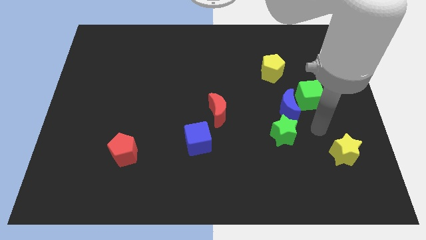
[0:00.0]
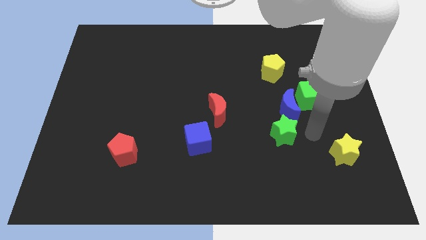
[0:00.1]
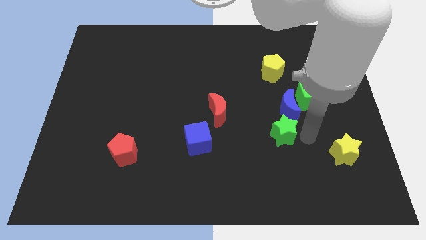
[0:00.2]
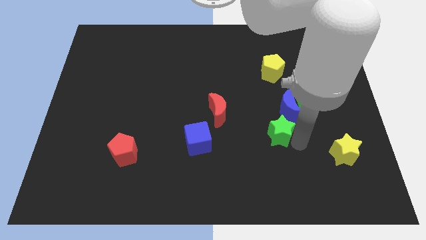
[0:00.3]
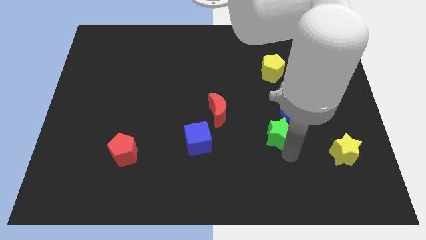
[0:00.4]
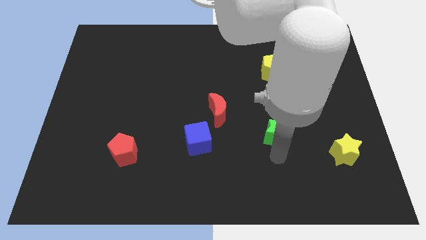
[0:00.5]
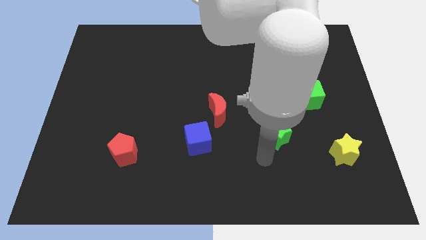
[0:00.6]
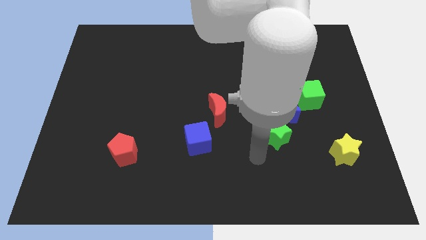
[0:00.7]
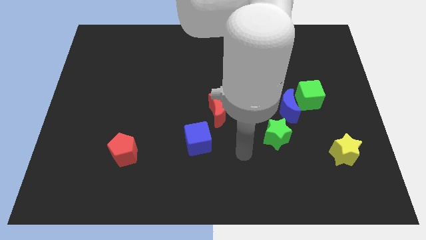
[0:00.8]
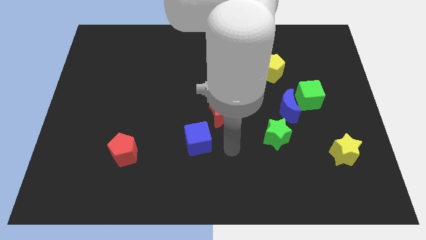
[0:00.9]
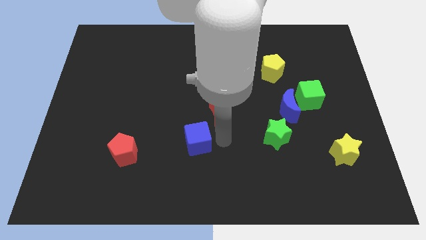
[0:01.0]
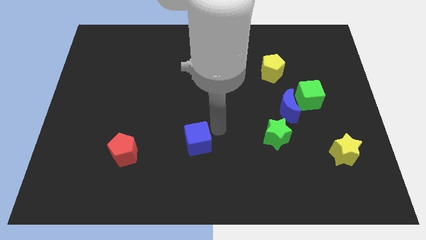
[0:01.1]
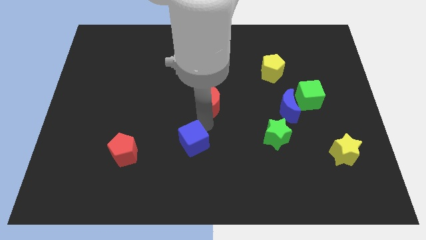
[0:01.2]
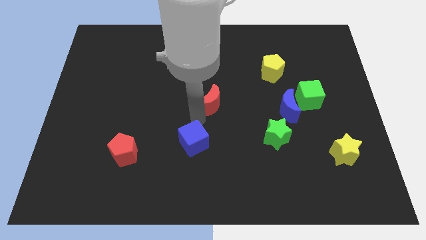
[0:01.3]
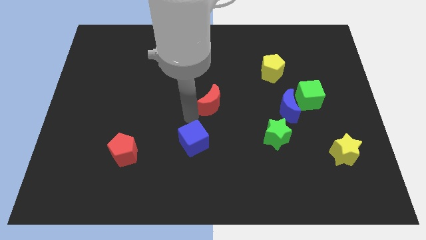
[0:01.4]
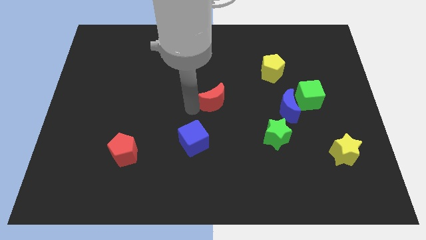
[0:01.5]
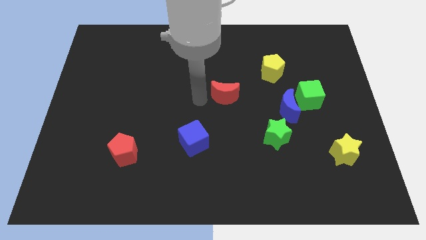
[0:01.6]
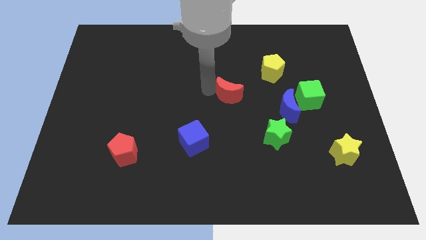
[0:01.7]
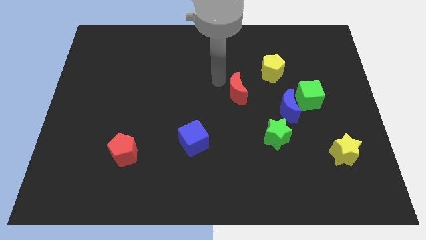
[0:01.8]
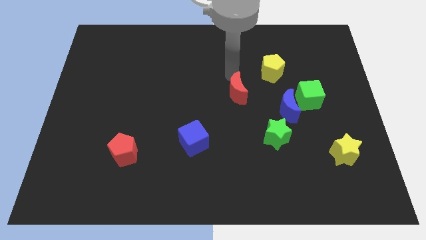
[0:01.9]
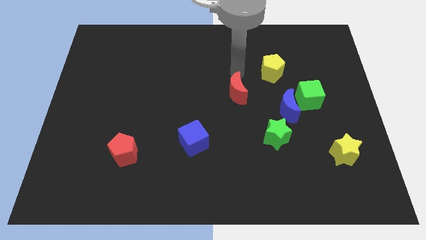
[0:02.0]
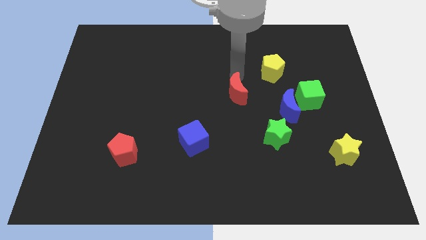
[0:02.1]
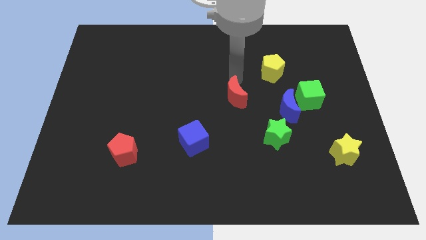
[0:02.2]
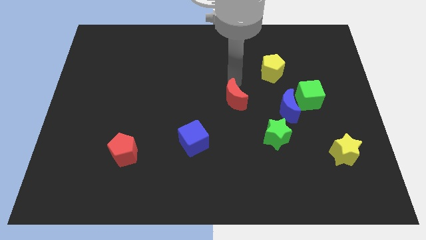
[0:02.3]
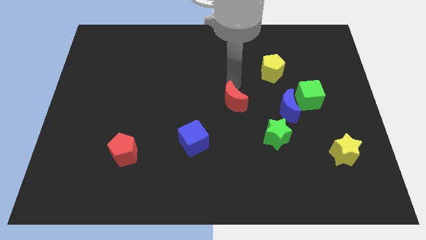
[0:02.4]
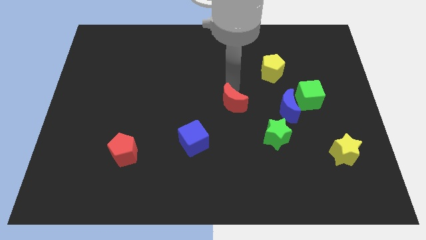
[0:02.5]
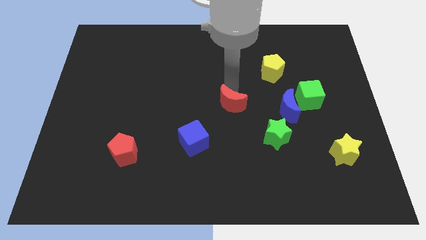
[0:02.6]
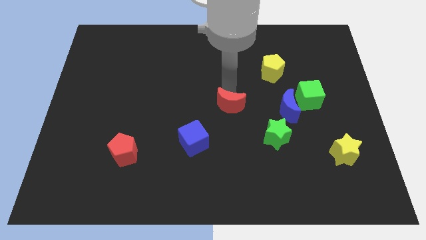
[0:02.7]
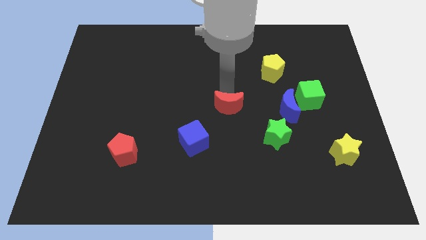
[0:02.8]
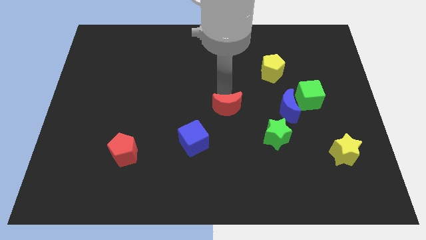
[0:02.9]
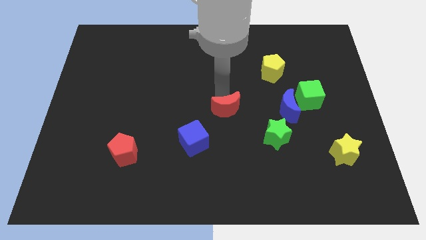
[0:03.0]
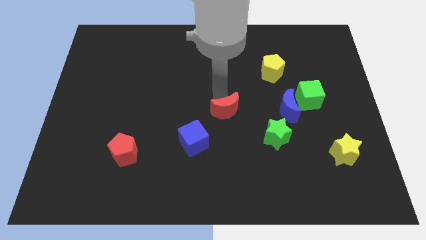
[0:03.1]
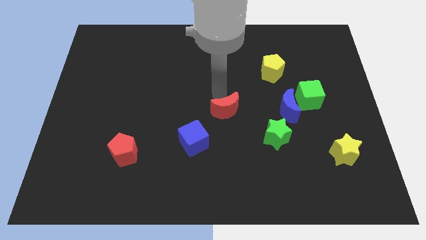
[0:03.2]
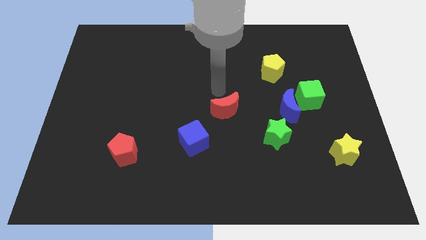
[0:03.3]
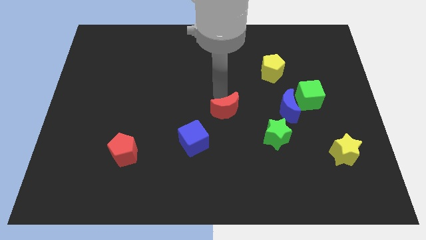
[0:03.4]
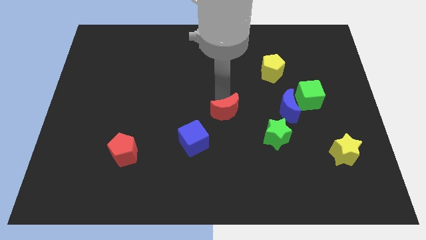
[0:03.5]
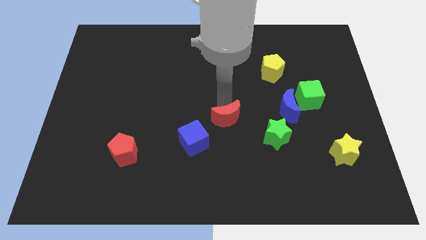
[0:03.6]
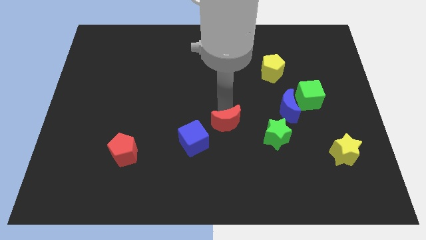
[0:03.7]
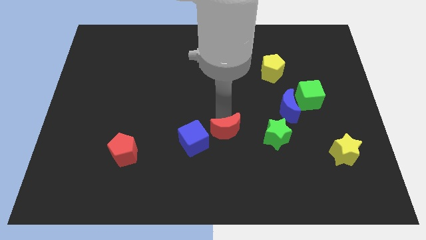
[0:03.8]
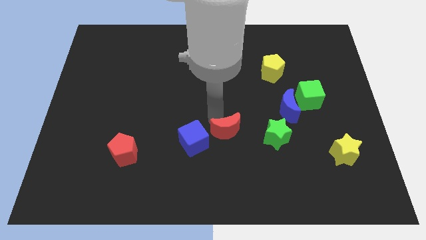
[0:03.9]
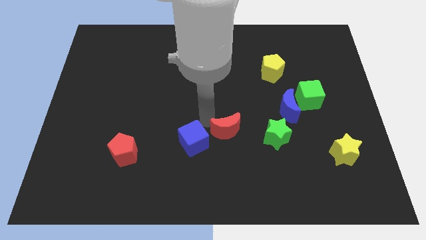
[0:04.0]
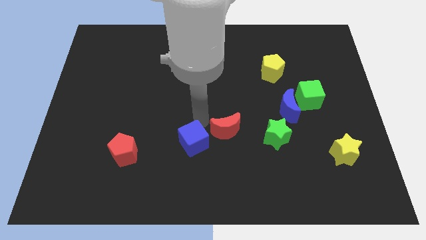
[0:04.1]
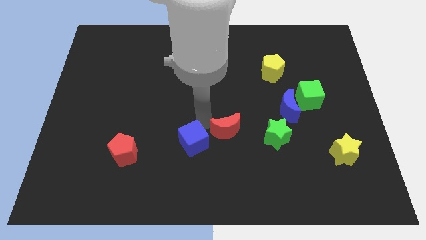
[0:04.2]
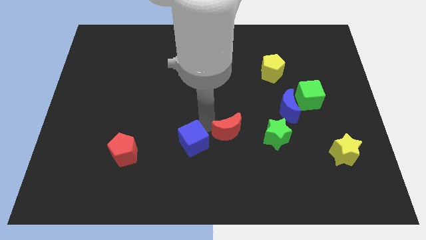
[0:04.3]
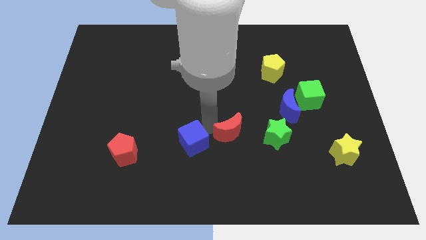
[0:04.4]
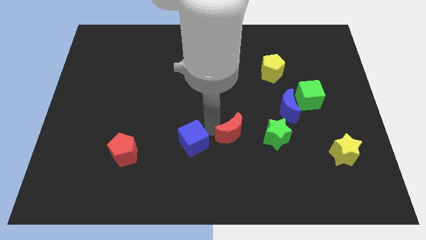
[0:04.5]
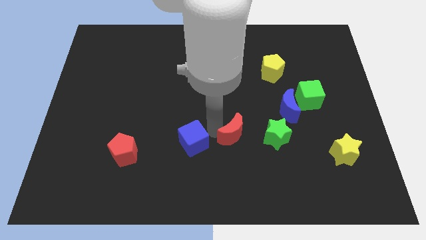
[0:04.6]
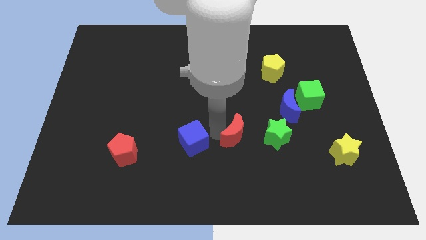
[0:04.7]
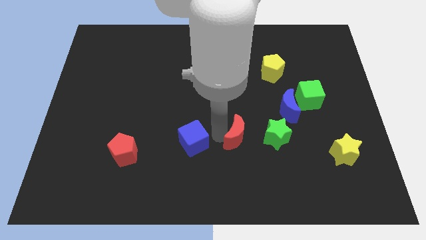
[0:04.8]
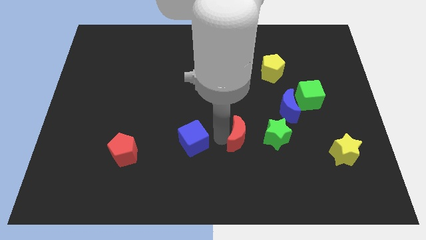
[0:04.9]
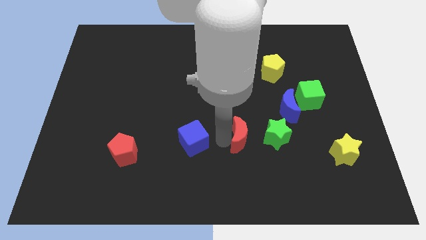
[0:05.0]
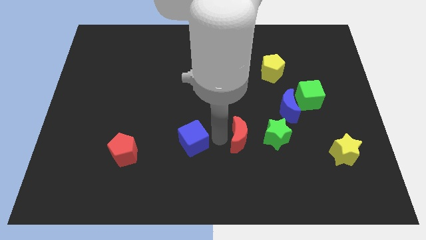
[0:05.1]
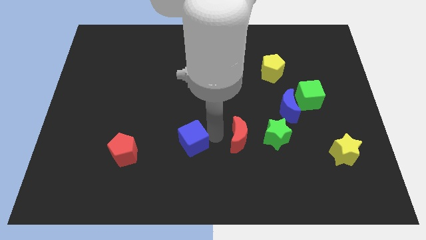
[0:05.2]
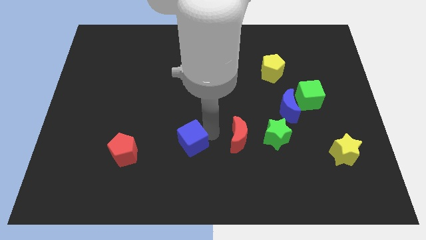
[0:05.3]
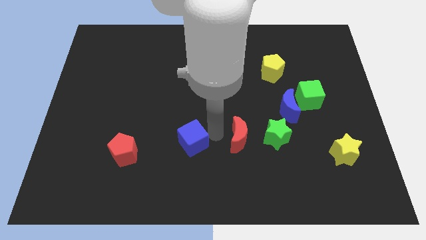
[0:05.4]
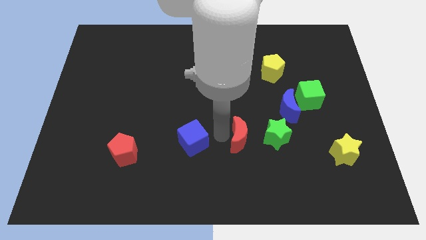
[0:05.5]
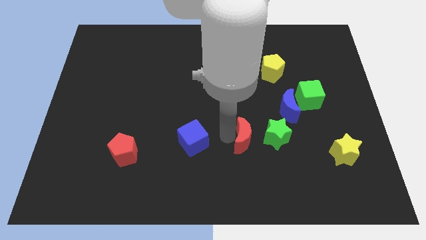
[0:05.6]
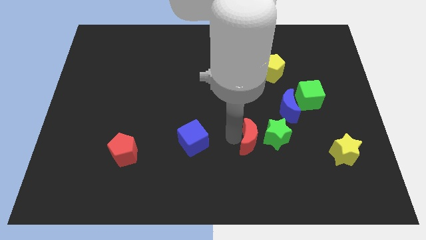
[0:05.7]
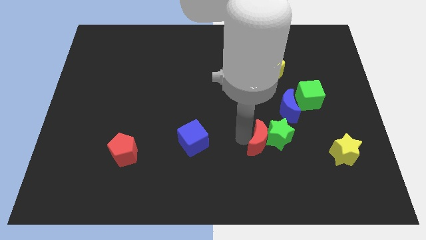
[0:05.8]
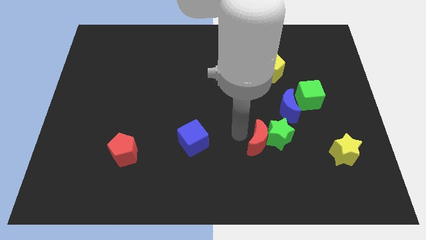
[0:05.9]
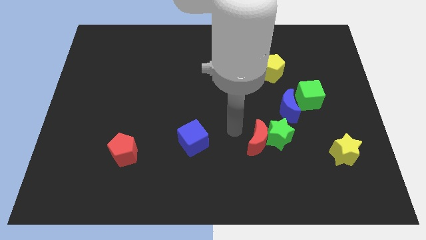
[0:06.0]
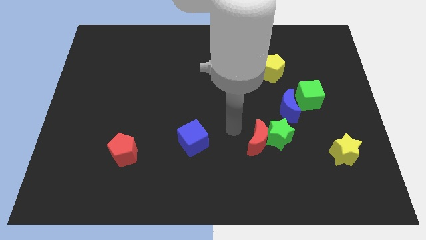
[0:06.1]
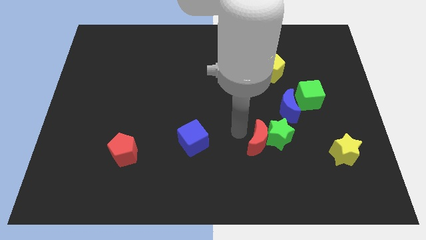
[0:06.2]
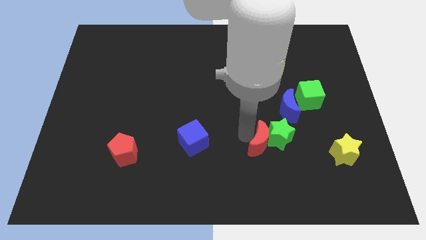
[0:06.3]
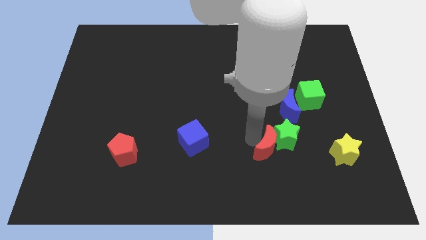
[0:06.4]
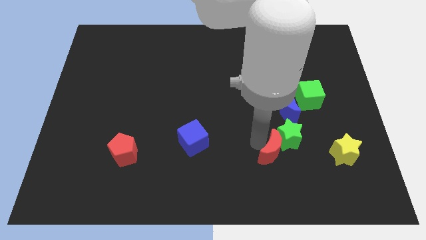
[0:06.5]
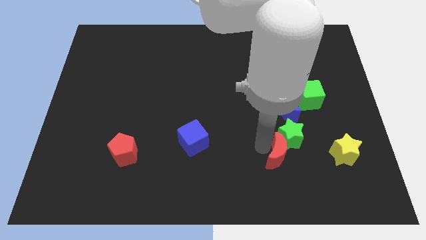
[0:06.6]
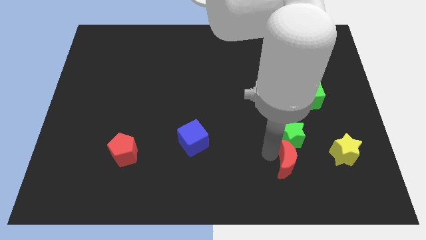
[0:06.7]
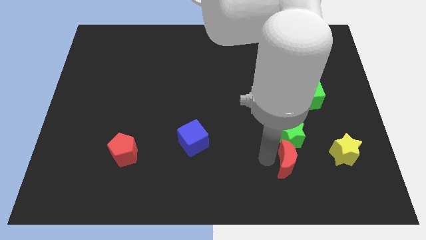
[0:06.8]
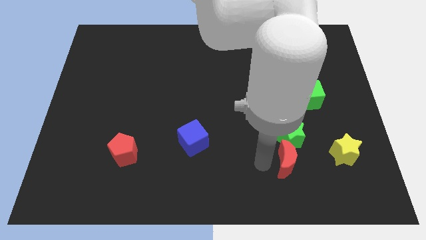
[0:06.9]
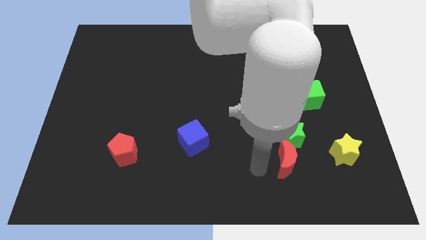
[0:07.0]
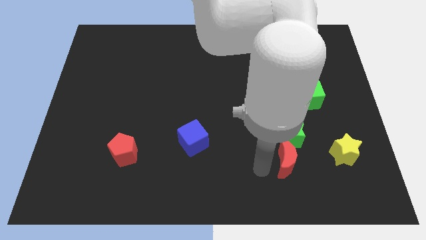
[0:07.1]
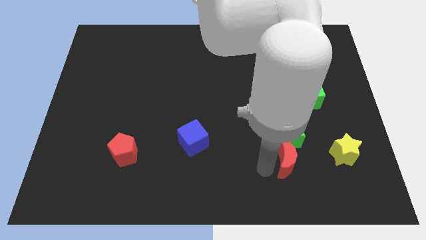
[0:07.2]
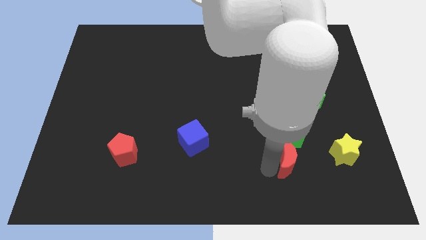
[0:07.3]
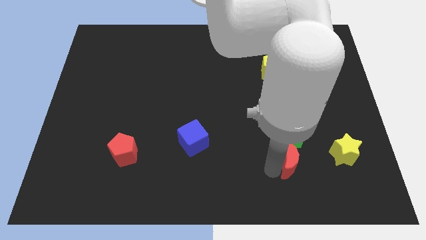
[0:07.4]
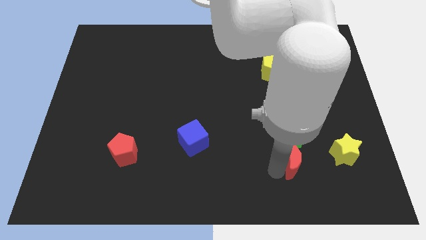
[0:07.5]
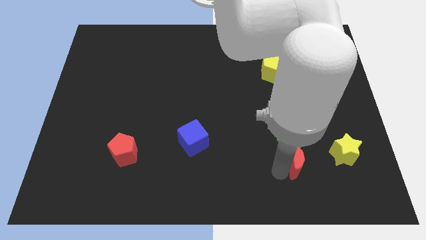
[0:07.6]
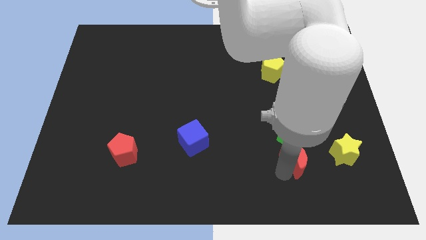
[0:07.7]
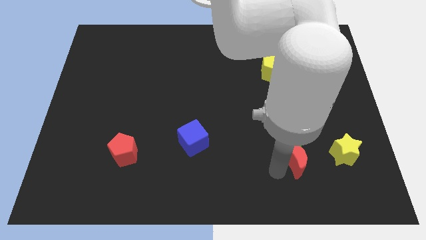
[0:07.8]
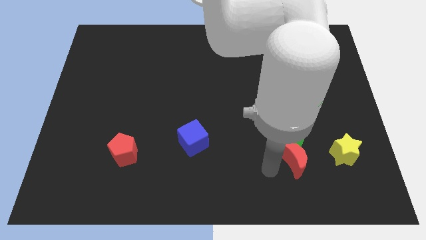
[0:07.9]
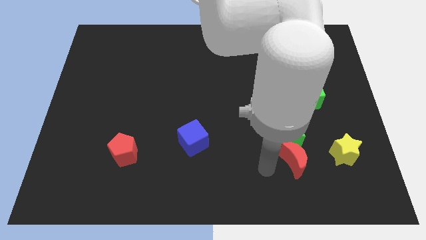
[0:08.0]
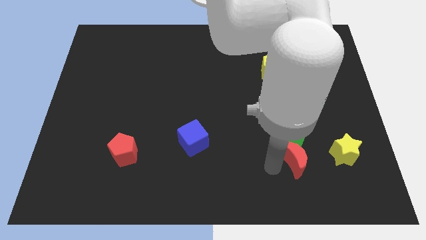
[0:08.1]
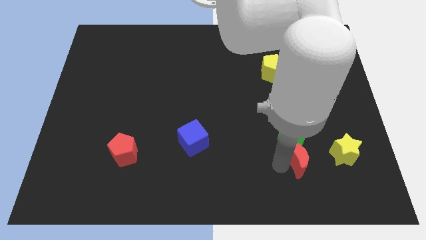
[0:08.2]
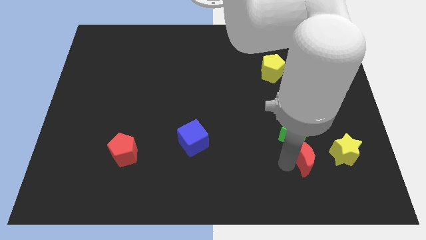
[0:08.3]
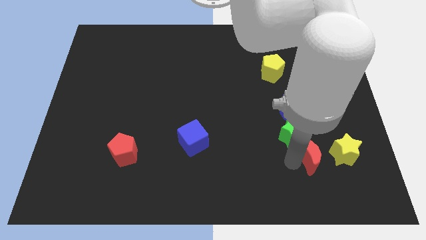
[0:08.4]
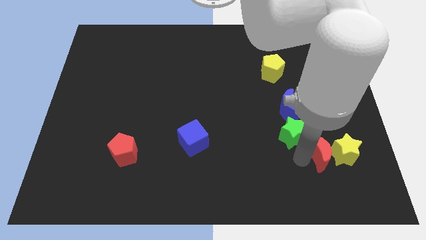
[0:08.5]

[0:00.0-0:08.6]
put the red moon close to the yellow star
